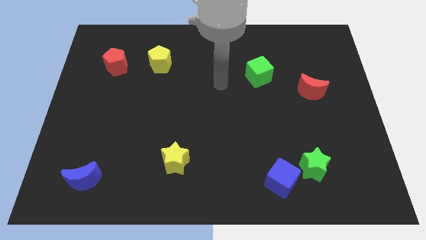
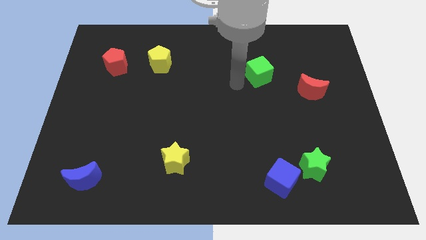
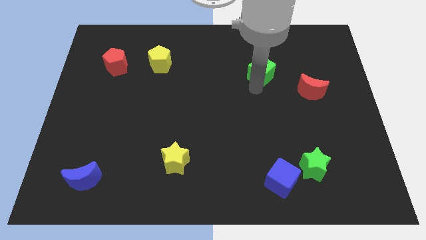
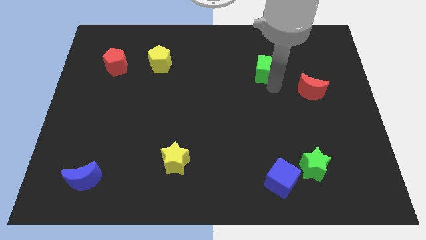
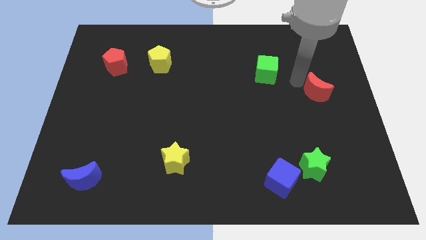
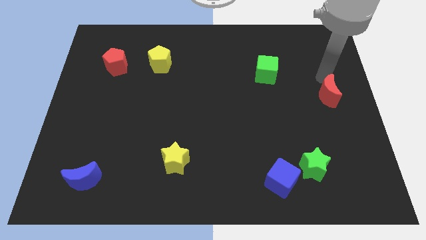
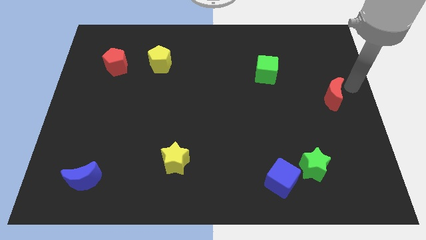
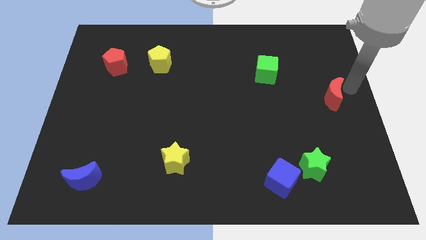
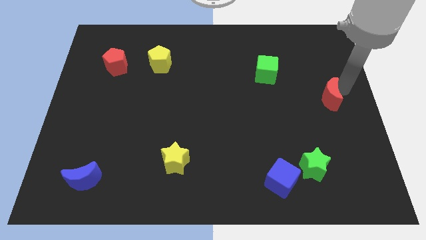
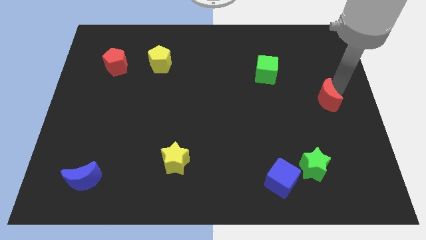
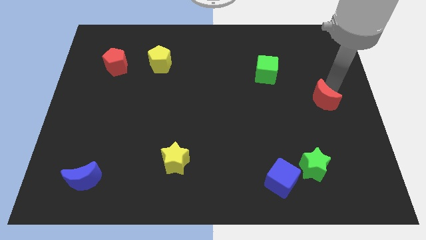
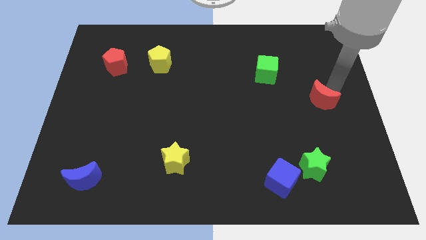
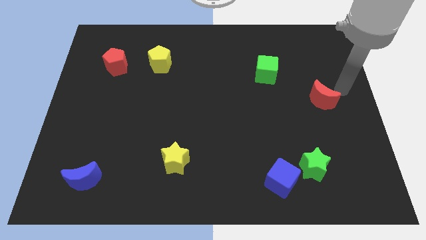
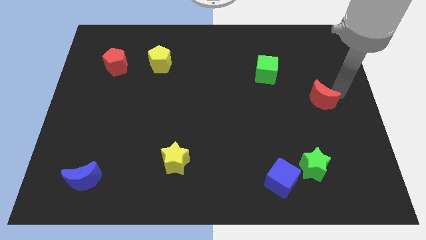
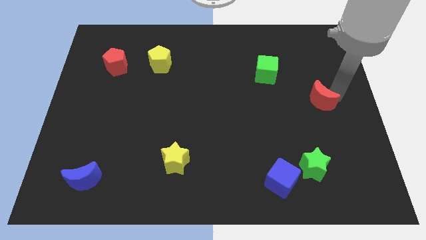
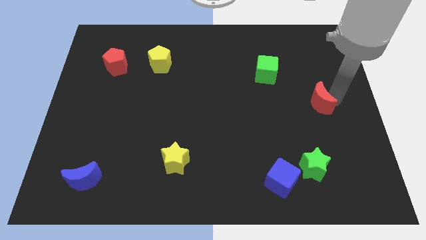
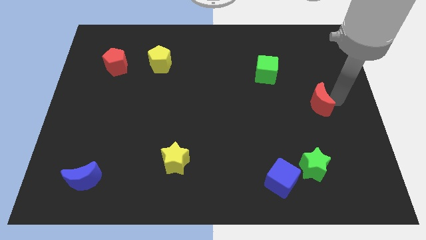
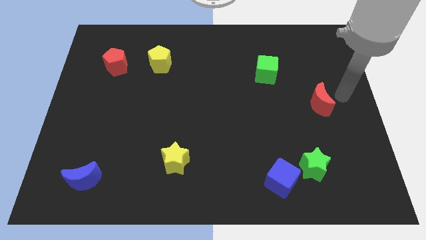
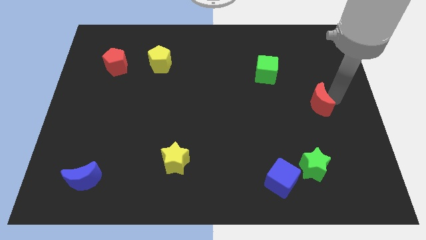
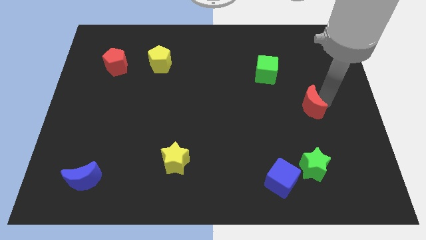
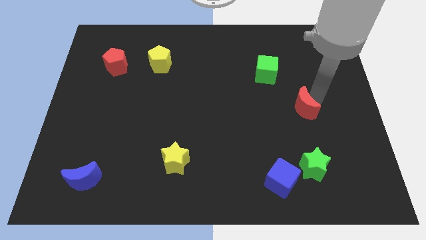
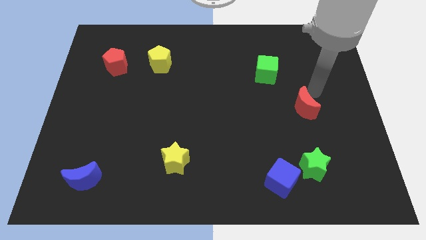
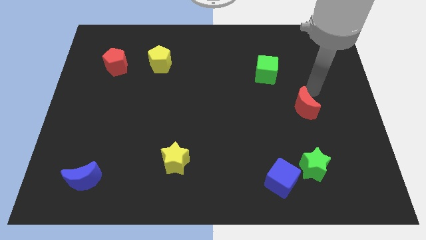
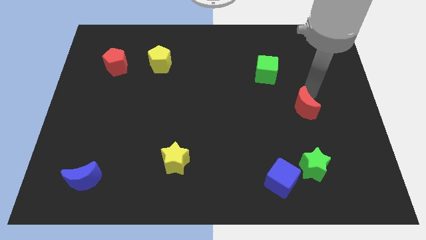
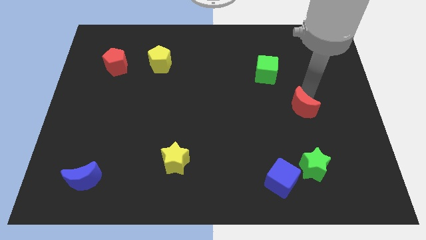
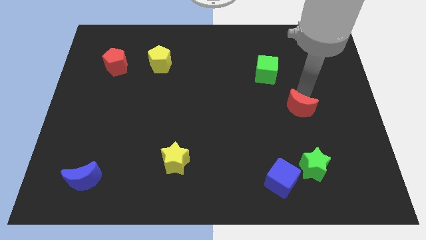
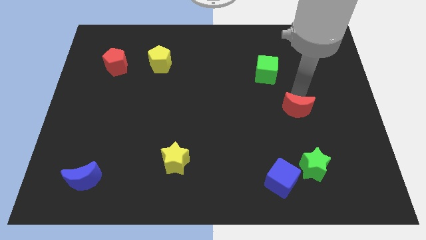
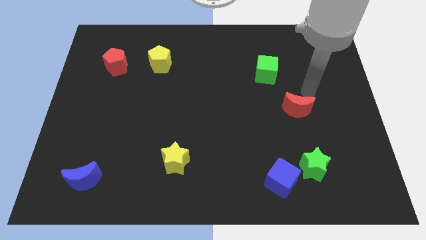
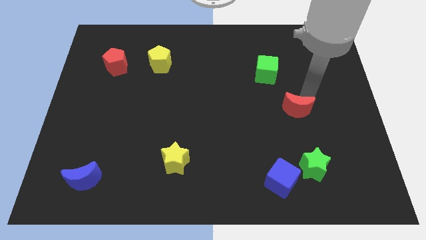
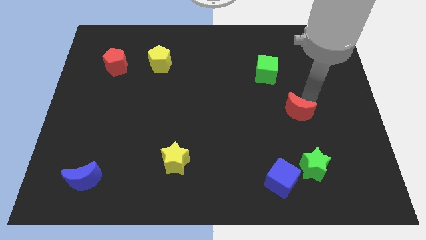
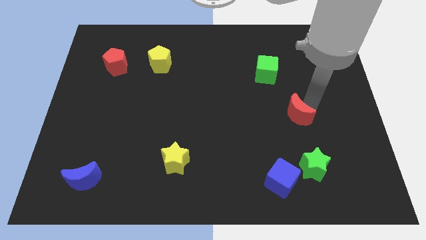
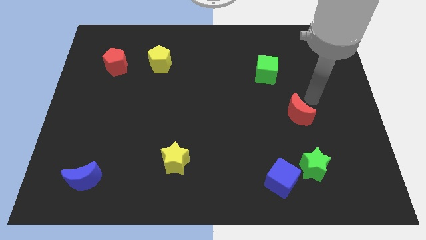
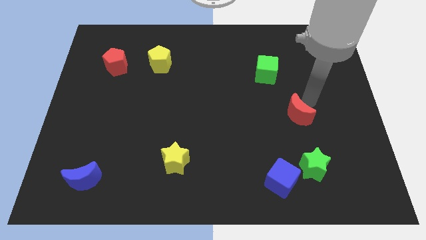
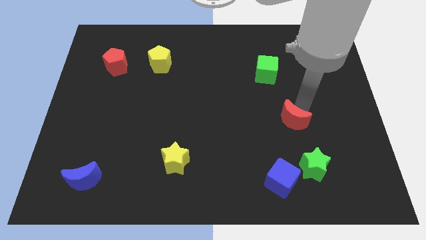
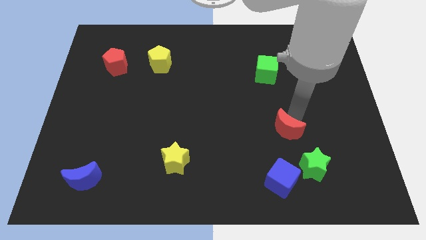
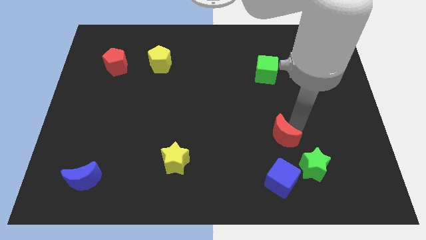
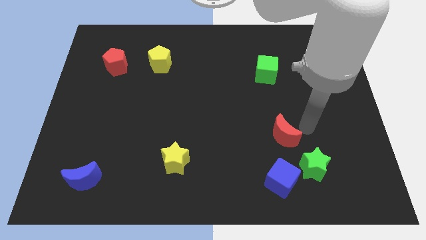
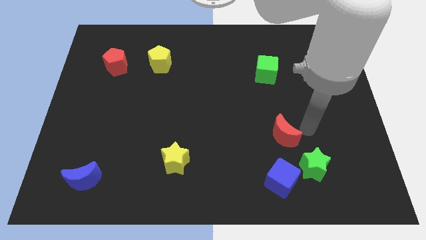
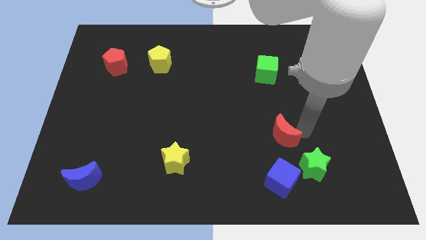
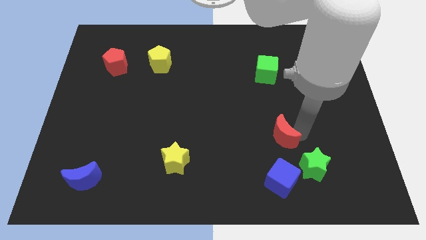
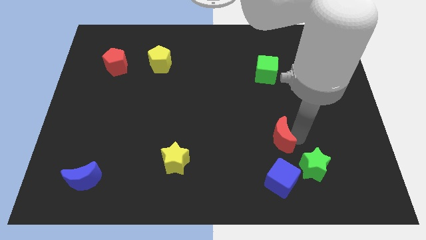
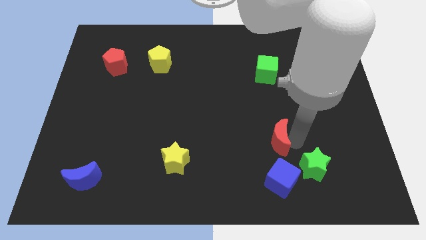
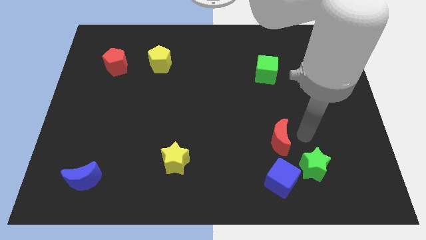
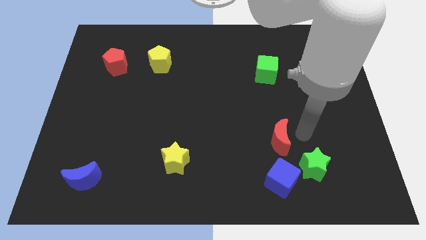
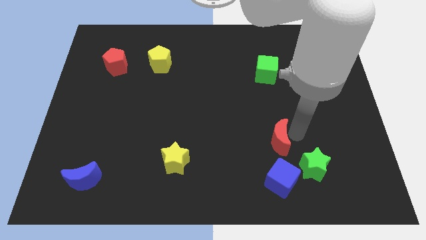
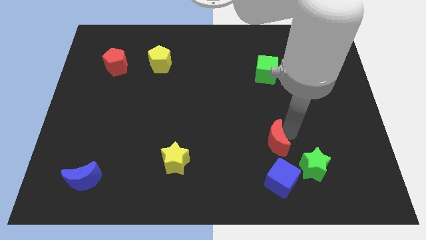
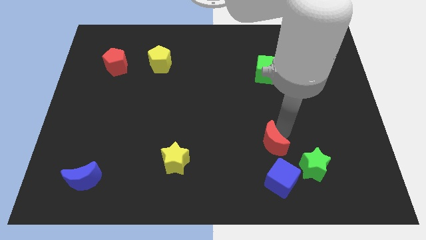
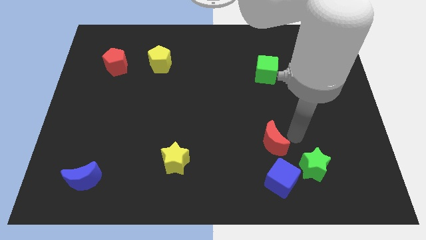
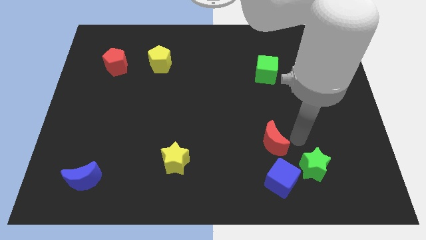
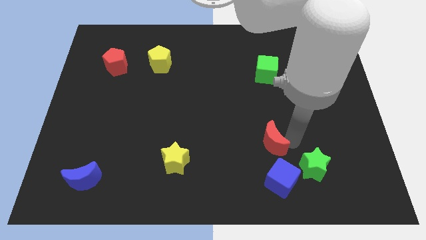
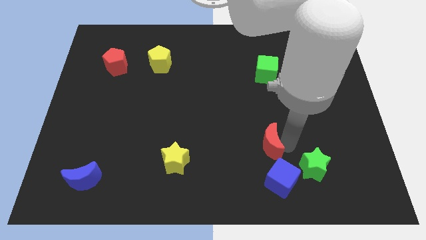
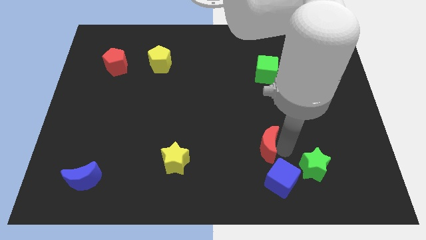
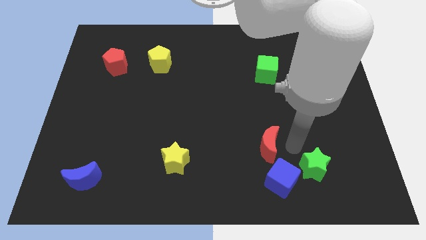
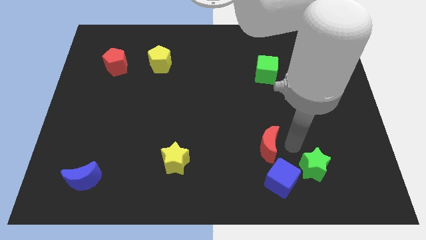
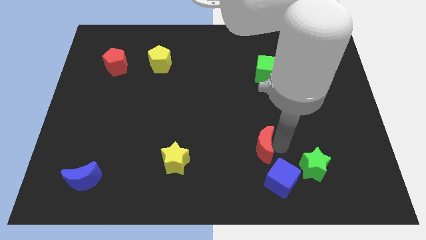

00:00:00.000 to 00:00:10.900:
move the red moon down and to the left

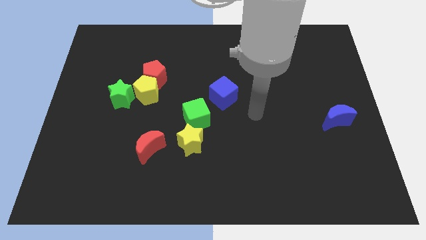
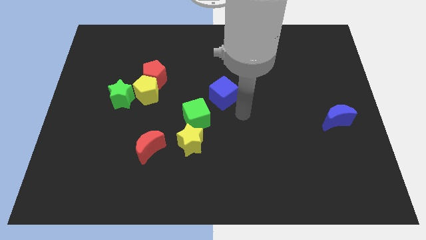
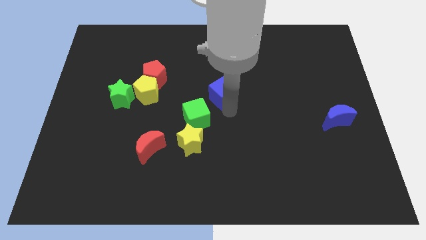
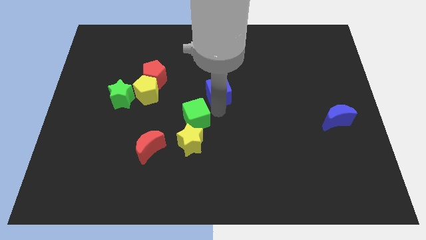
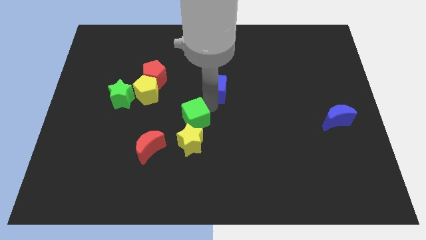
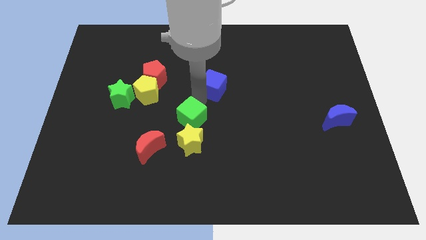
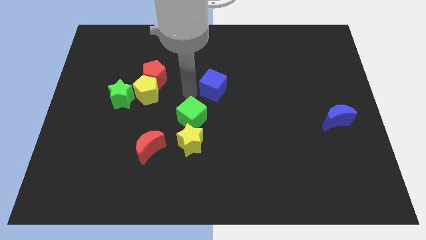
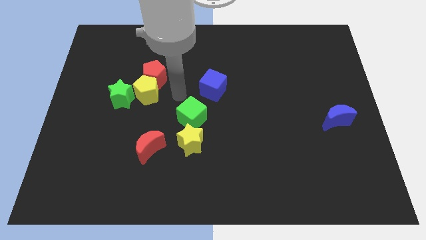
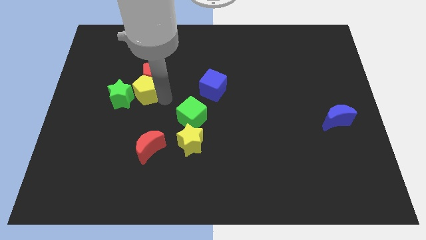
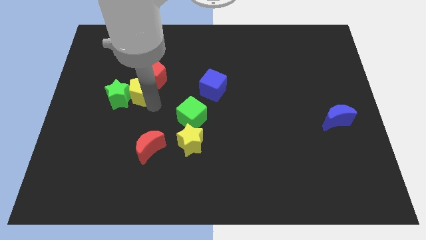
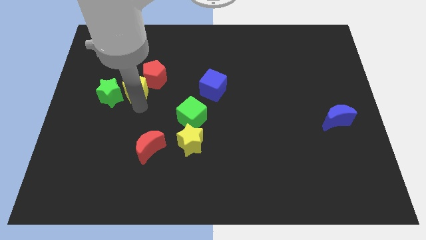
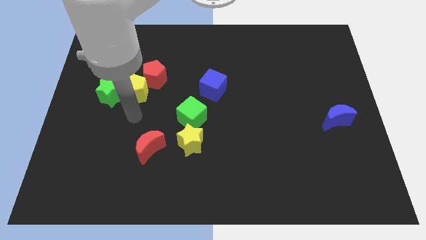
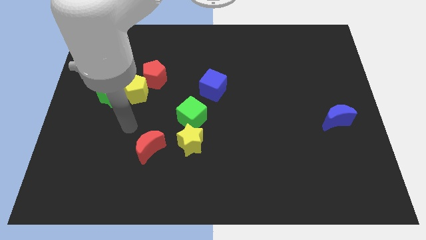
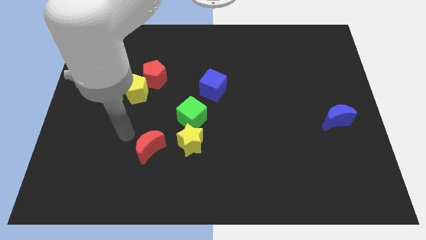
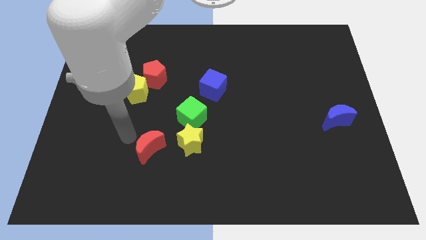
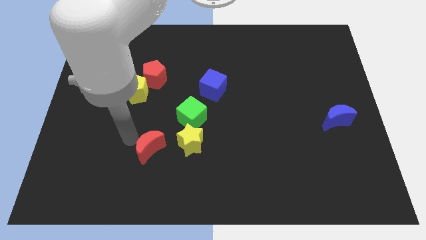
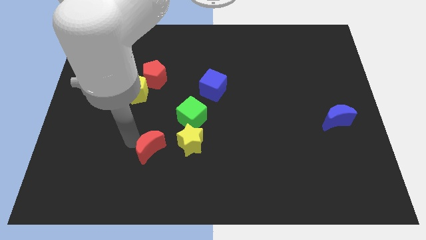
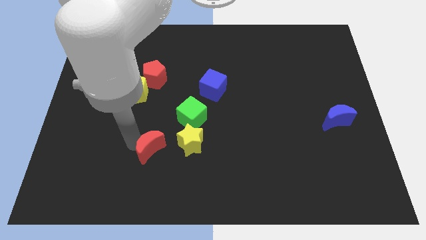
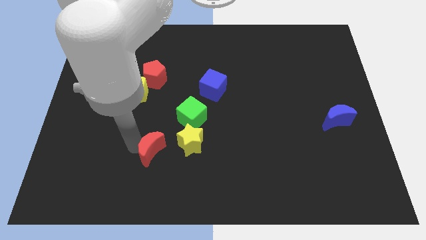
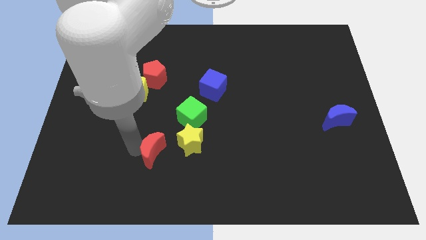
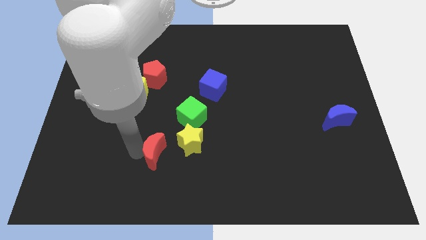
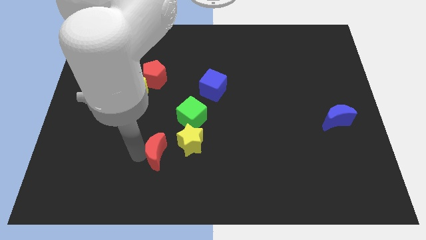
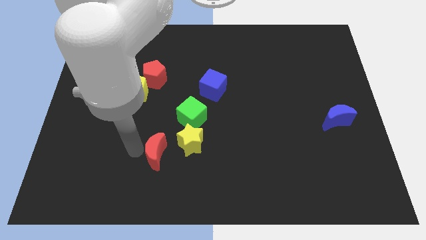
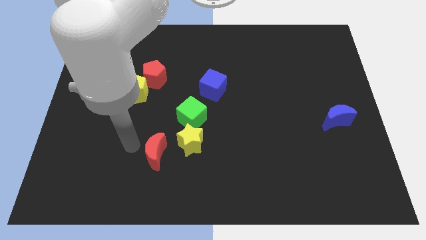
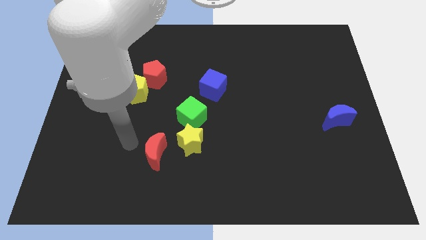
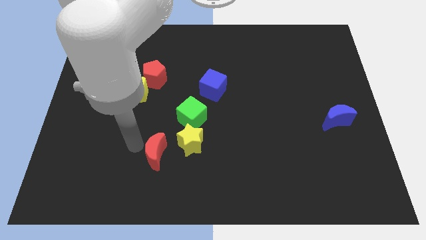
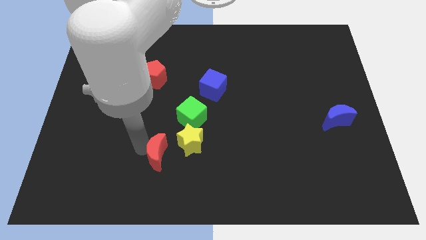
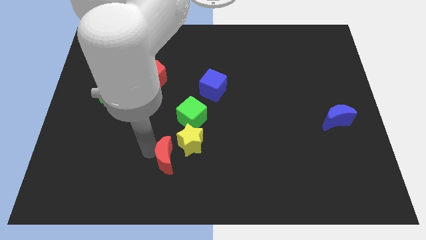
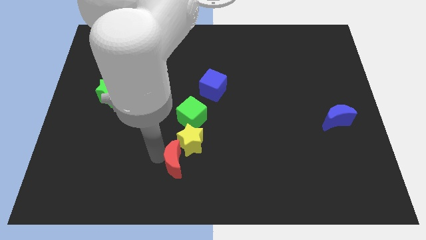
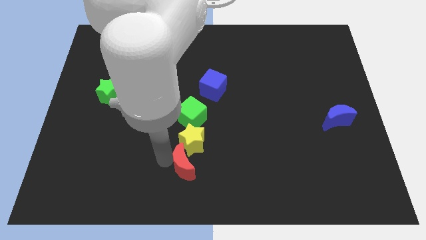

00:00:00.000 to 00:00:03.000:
push the red moon to the right a little
